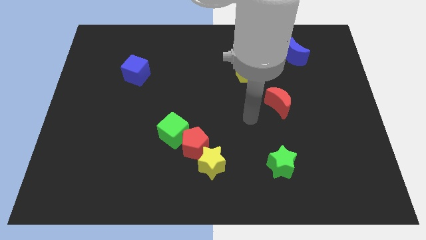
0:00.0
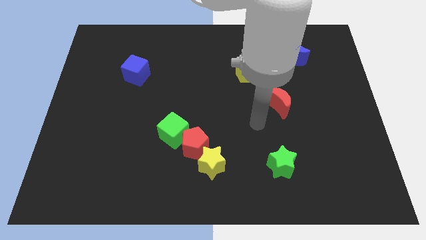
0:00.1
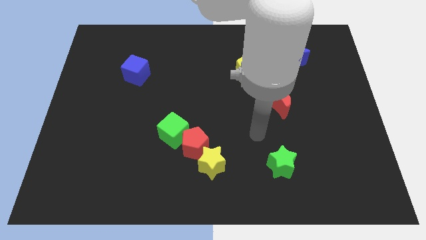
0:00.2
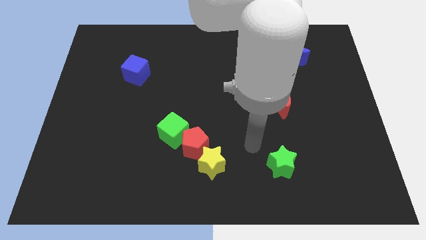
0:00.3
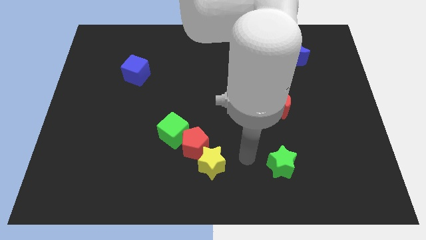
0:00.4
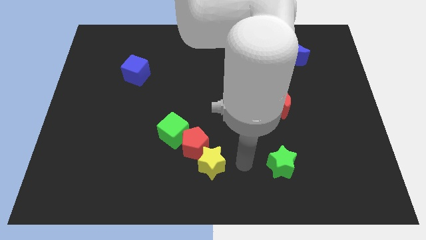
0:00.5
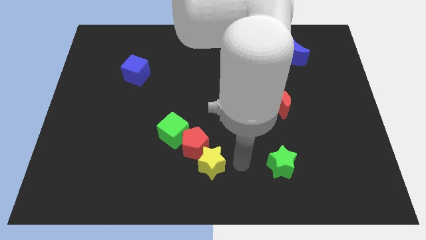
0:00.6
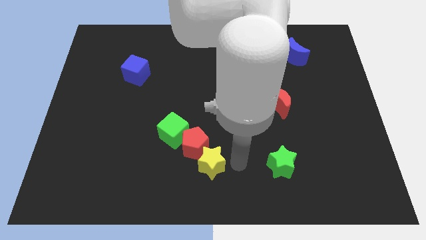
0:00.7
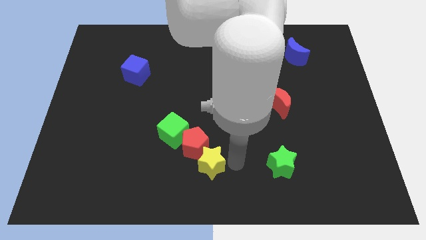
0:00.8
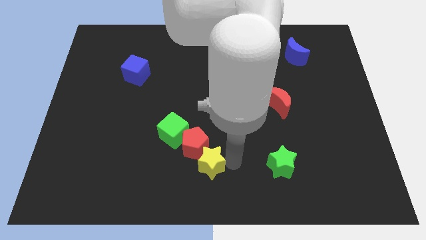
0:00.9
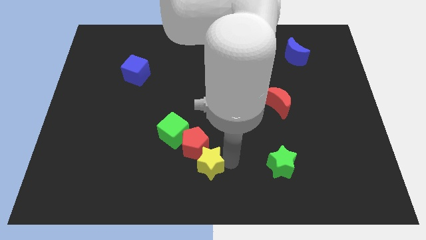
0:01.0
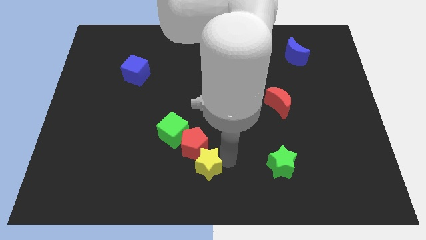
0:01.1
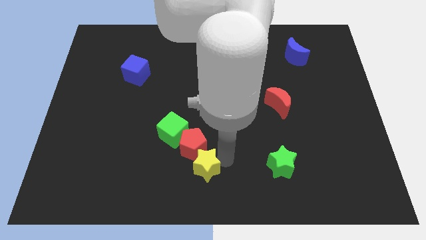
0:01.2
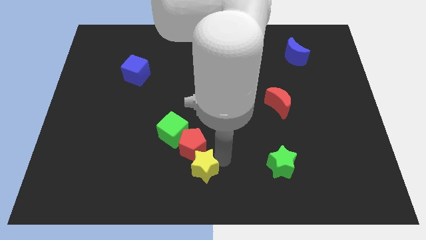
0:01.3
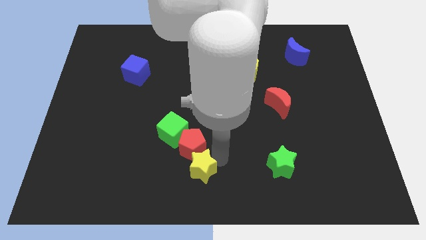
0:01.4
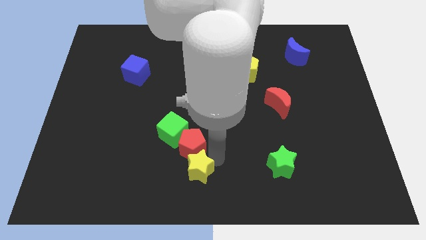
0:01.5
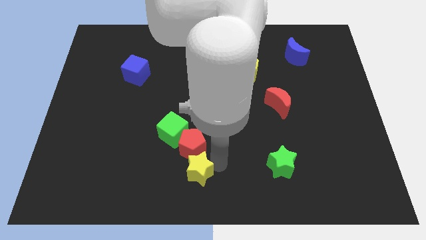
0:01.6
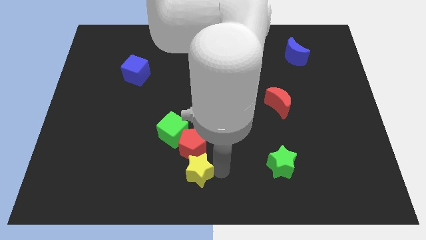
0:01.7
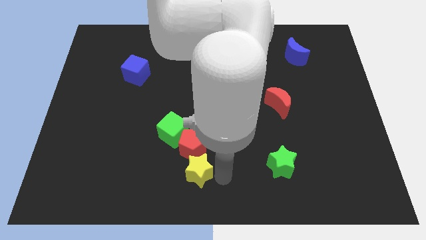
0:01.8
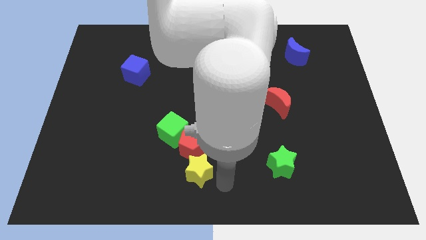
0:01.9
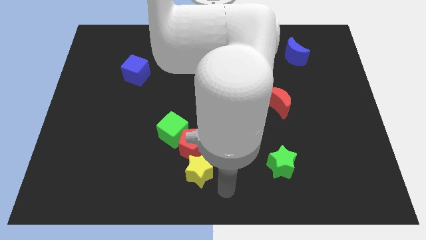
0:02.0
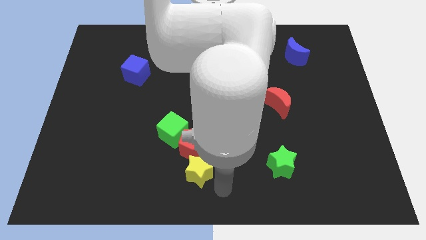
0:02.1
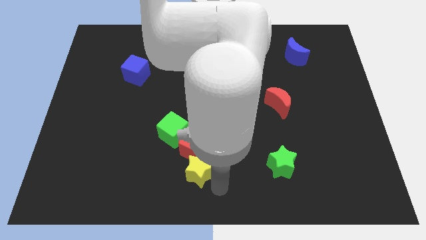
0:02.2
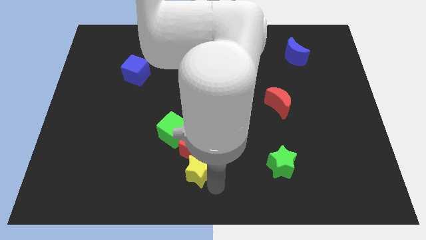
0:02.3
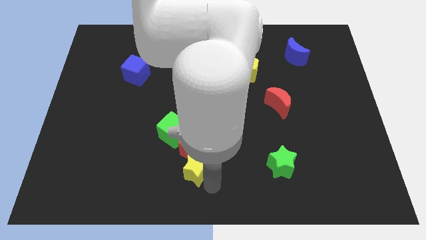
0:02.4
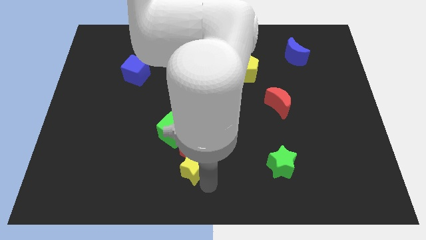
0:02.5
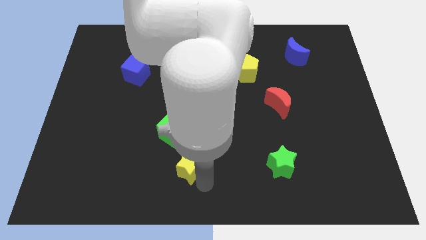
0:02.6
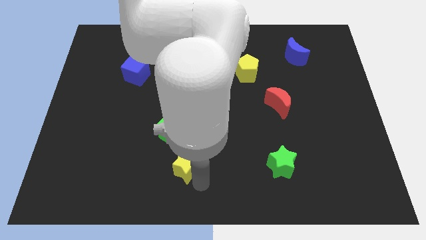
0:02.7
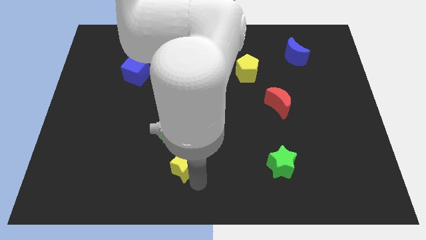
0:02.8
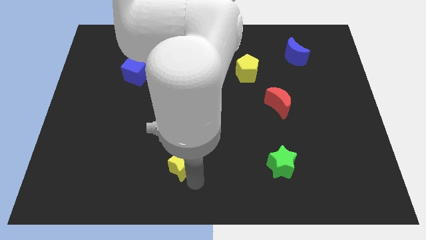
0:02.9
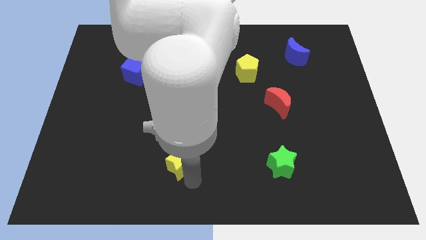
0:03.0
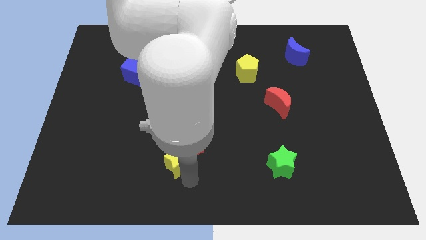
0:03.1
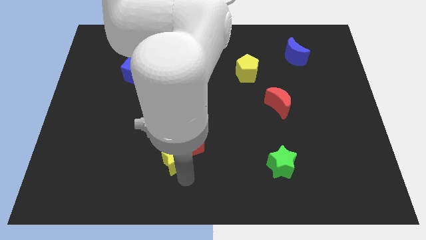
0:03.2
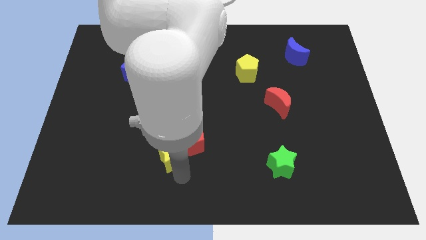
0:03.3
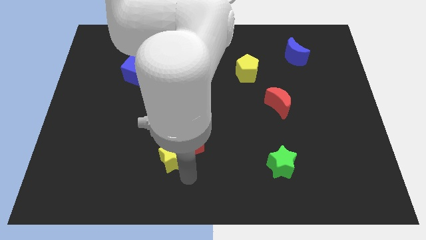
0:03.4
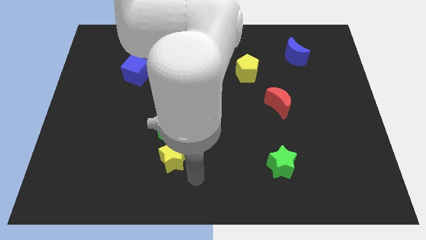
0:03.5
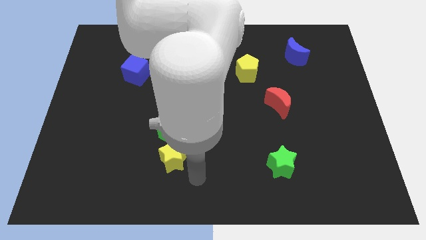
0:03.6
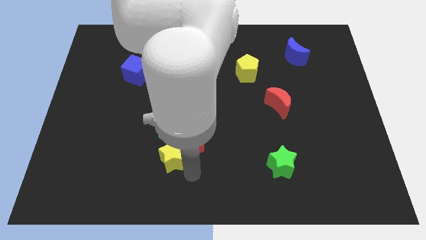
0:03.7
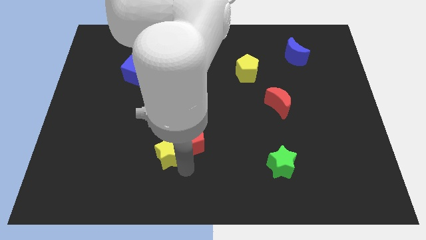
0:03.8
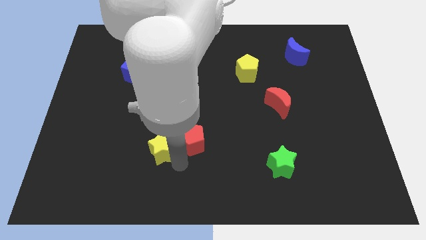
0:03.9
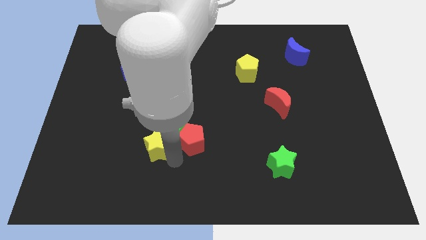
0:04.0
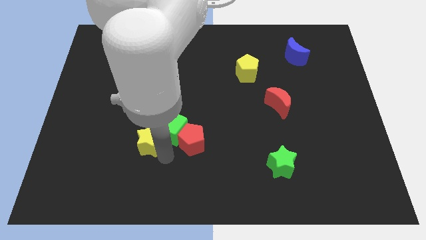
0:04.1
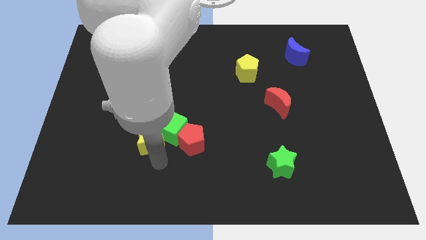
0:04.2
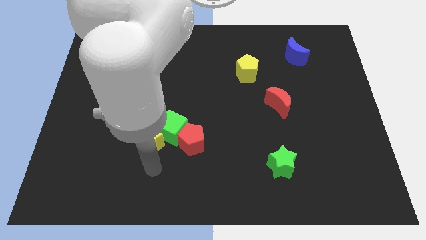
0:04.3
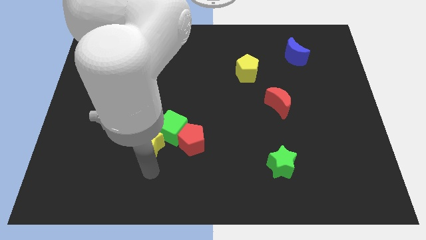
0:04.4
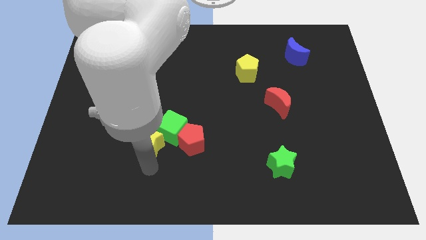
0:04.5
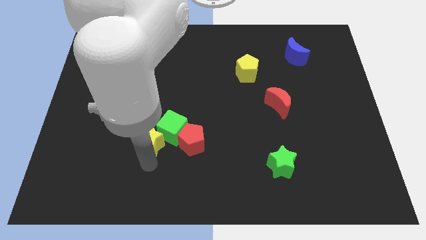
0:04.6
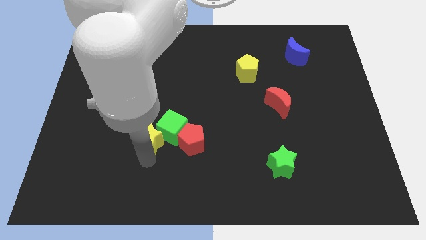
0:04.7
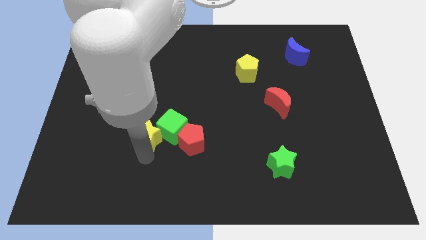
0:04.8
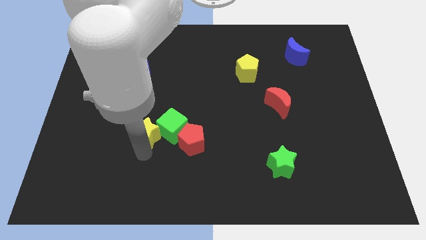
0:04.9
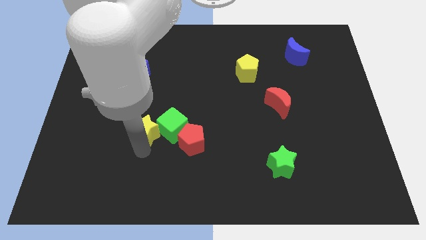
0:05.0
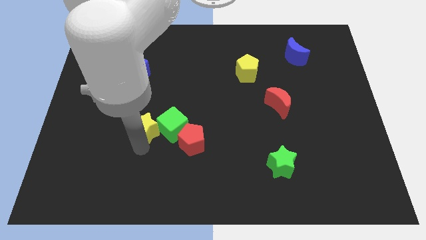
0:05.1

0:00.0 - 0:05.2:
put the yellow star diagonally up and to the left of the green cube

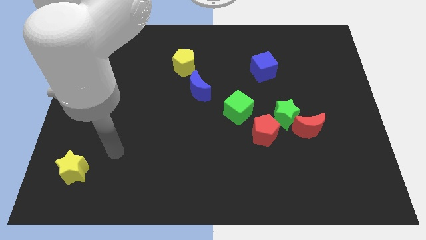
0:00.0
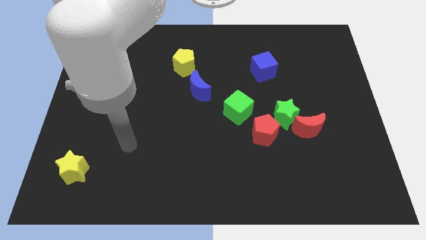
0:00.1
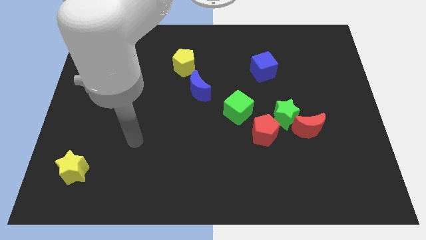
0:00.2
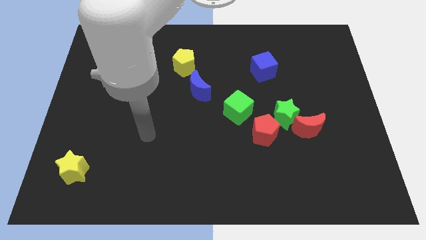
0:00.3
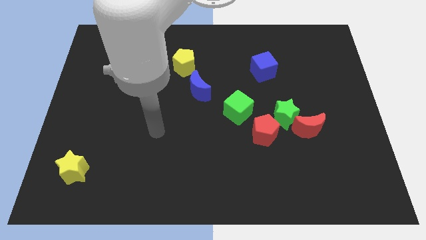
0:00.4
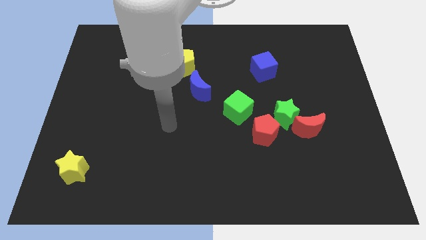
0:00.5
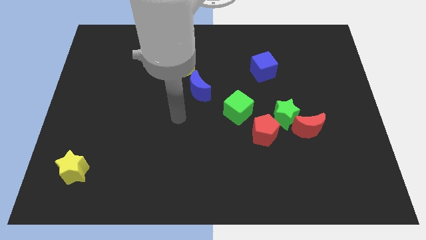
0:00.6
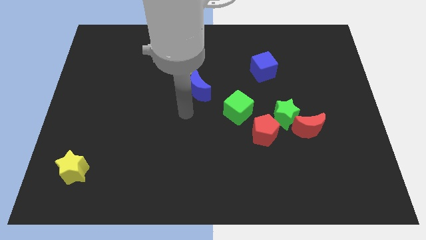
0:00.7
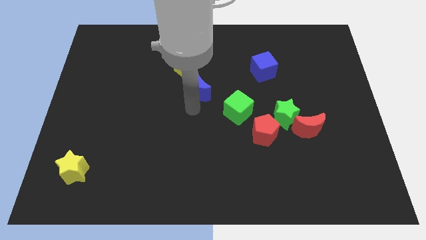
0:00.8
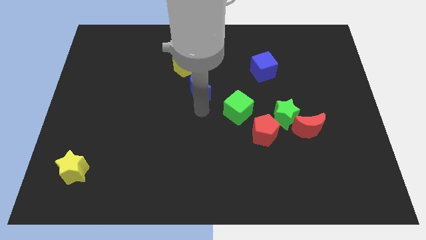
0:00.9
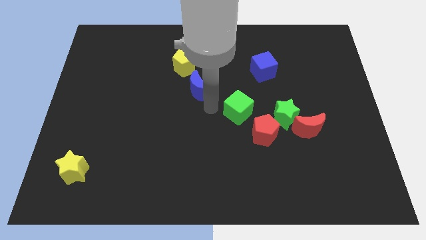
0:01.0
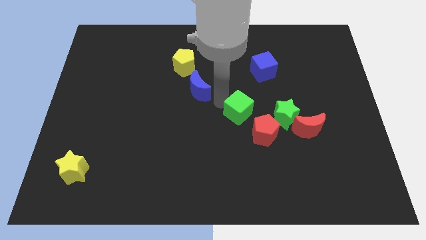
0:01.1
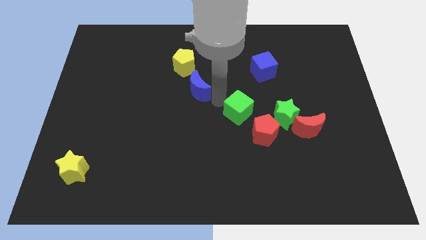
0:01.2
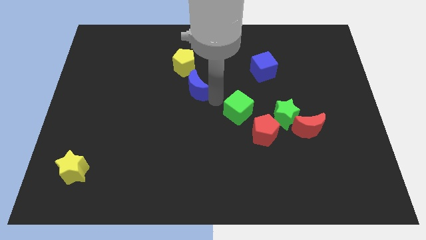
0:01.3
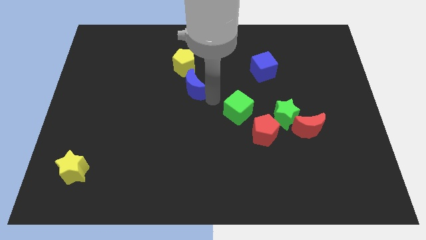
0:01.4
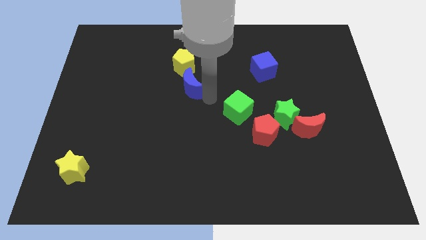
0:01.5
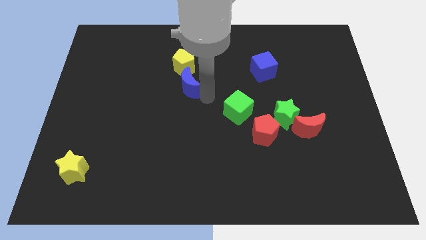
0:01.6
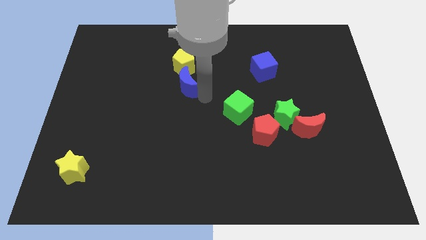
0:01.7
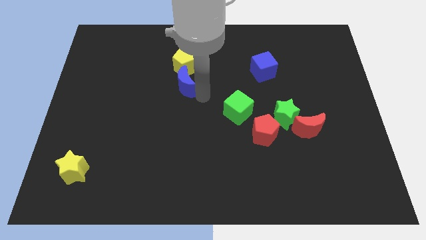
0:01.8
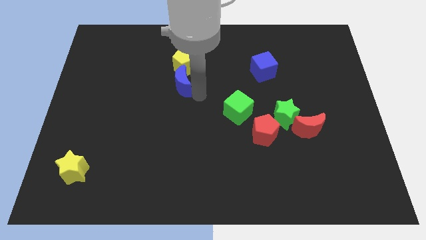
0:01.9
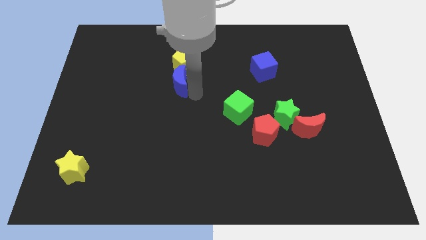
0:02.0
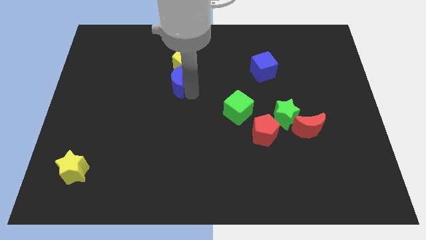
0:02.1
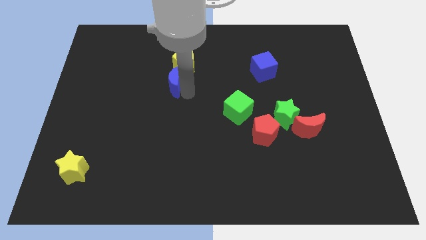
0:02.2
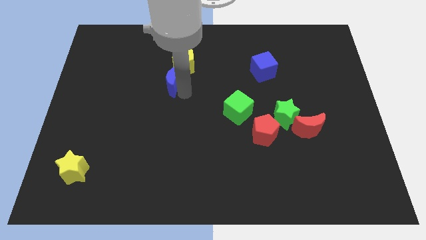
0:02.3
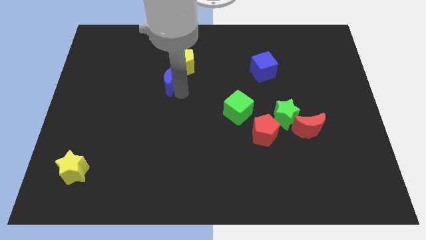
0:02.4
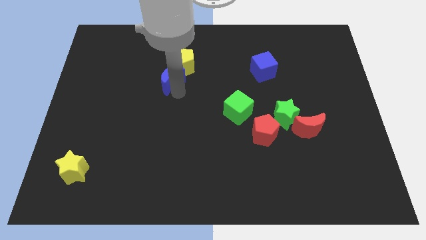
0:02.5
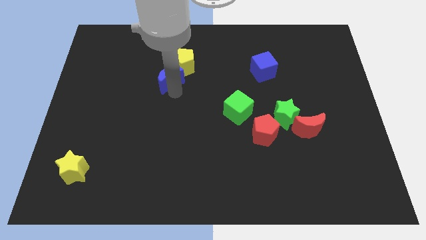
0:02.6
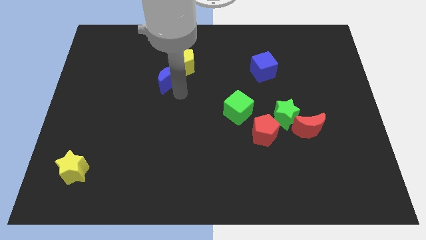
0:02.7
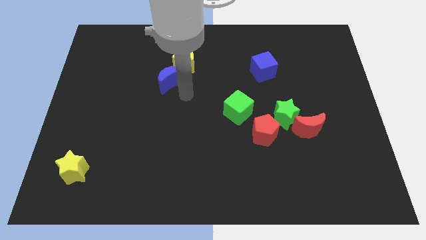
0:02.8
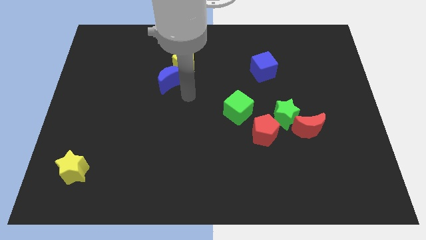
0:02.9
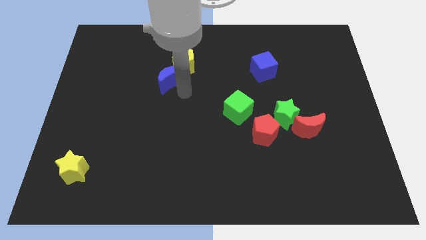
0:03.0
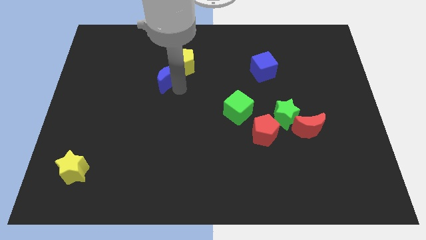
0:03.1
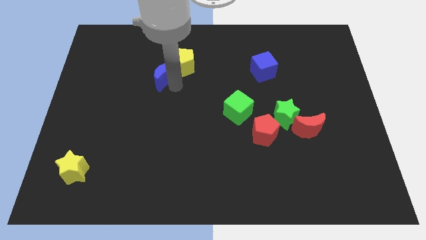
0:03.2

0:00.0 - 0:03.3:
put the blue moon left of the yellow pentagon

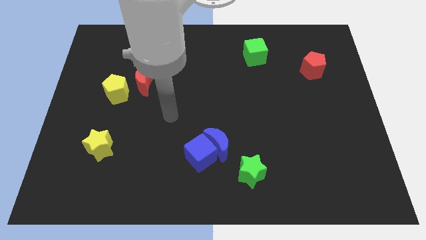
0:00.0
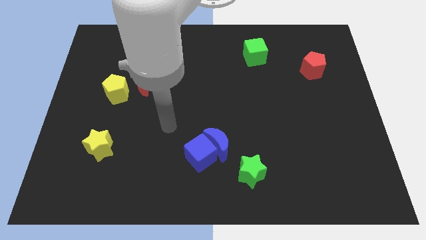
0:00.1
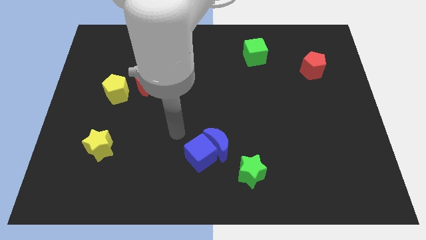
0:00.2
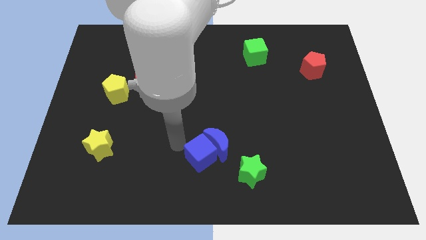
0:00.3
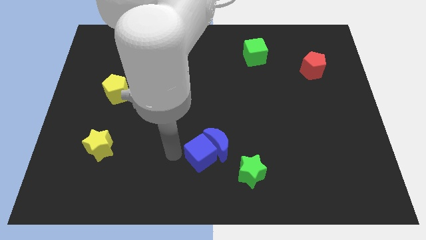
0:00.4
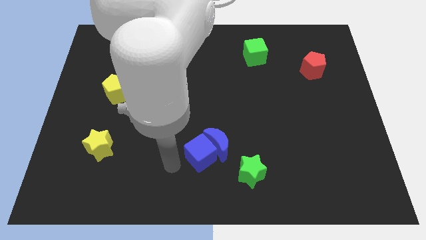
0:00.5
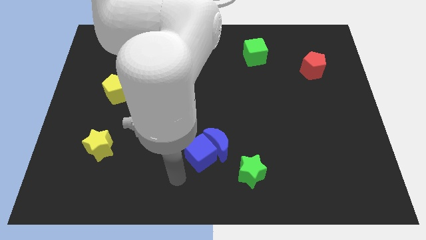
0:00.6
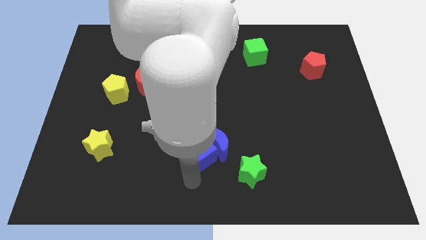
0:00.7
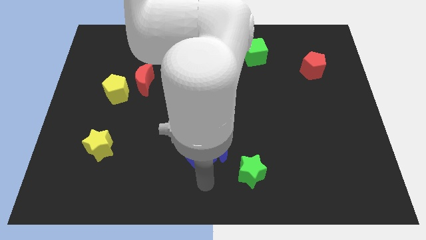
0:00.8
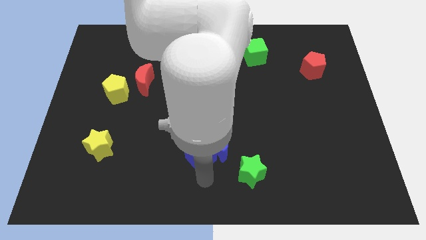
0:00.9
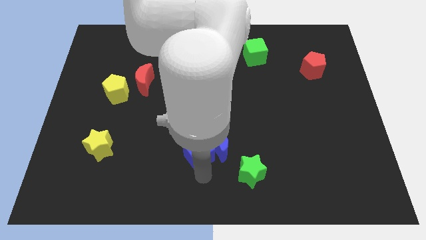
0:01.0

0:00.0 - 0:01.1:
put the blue cube to the top left side of the blue moon
